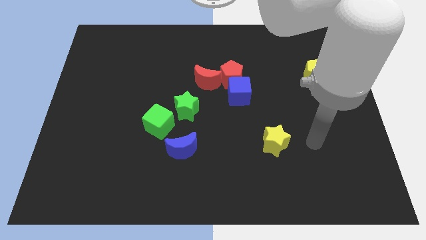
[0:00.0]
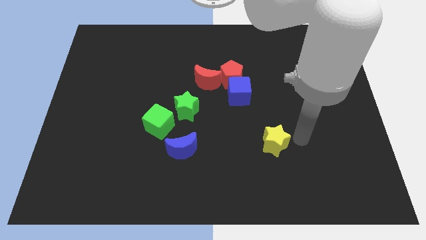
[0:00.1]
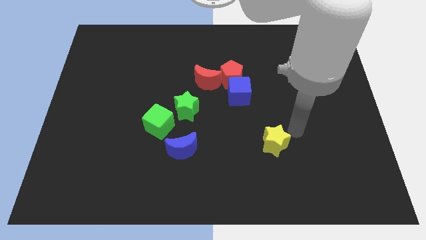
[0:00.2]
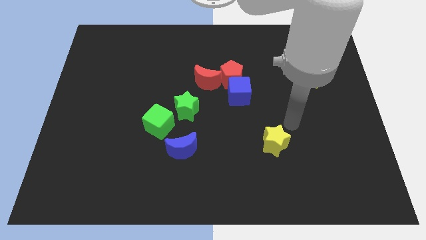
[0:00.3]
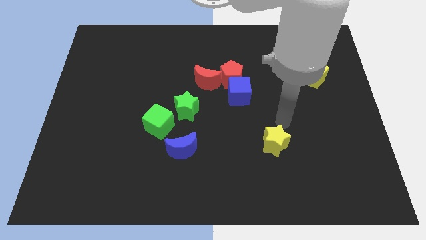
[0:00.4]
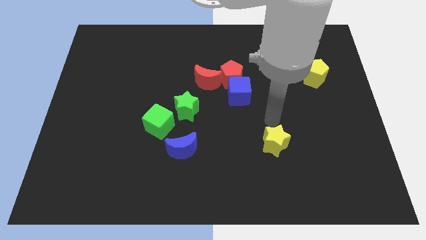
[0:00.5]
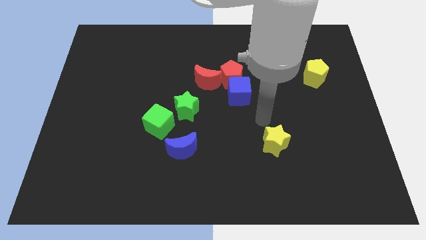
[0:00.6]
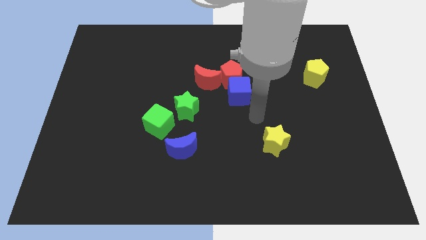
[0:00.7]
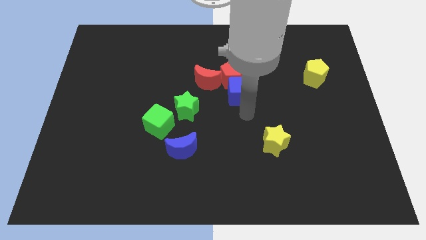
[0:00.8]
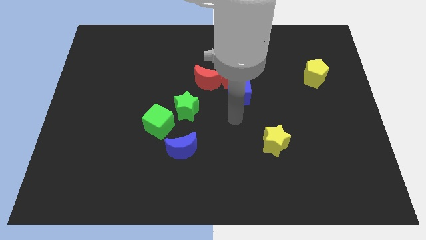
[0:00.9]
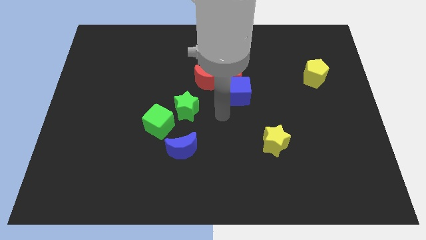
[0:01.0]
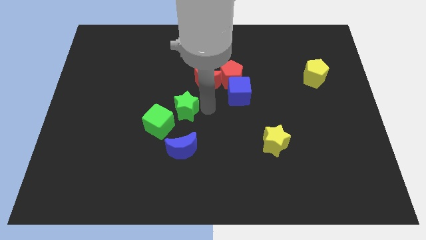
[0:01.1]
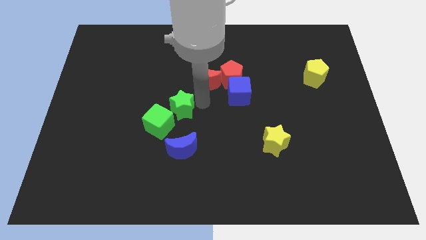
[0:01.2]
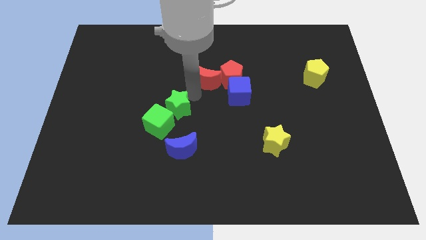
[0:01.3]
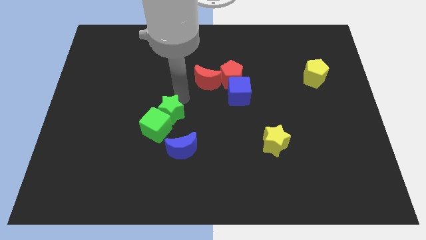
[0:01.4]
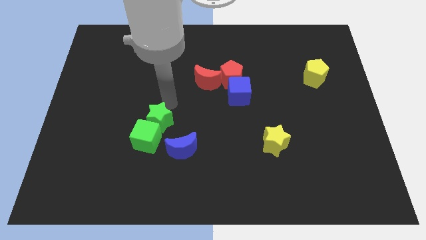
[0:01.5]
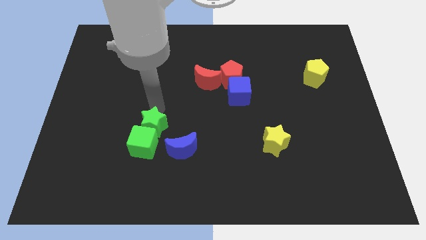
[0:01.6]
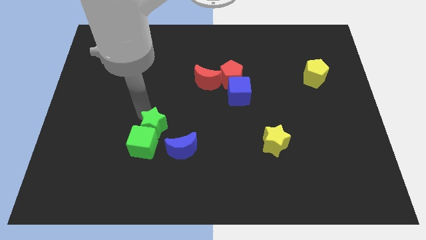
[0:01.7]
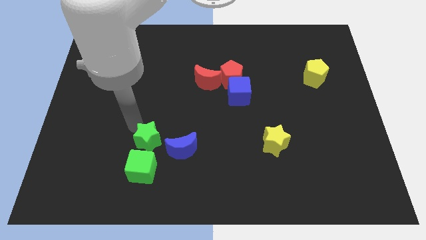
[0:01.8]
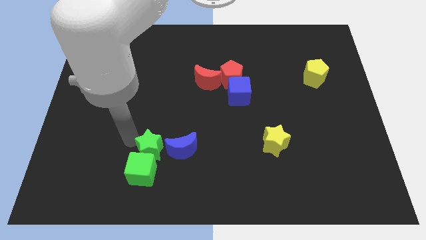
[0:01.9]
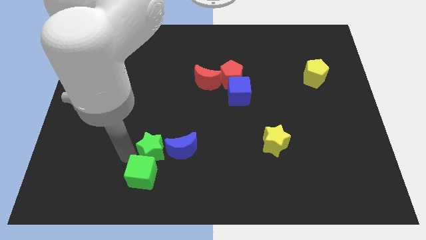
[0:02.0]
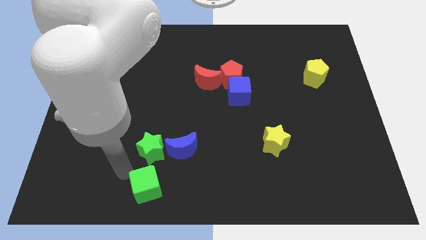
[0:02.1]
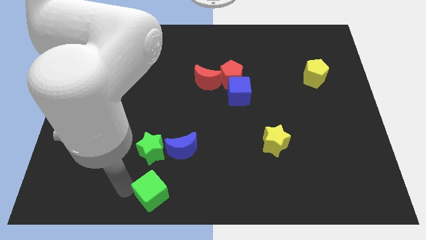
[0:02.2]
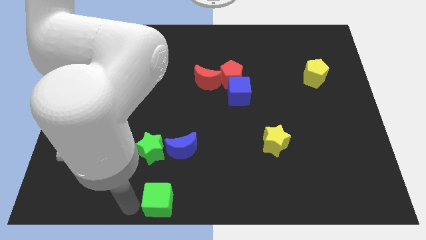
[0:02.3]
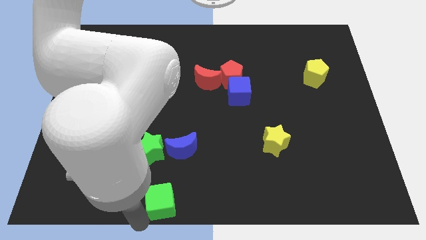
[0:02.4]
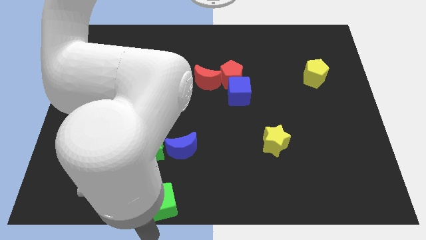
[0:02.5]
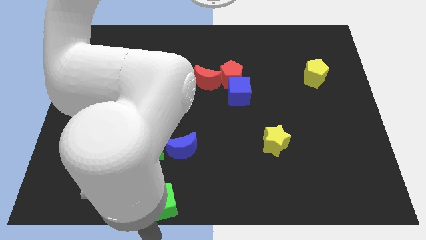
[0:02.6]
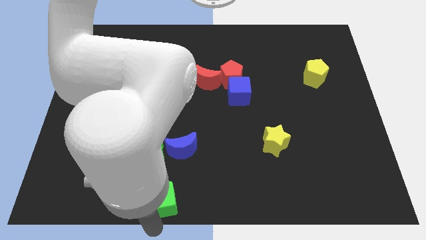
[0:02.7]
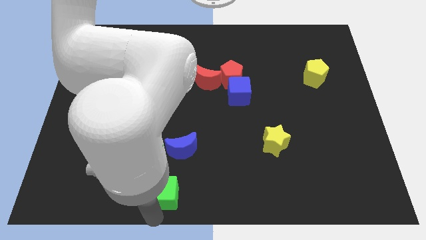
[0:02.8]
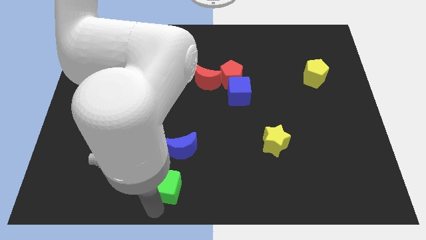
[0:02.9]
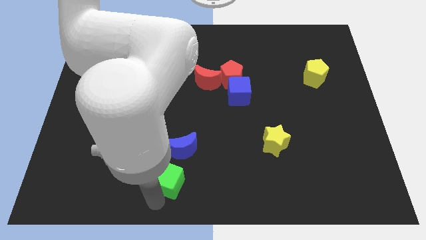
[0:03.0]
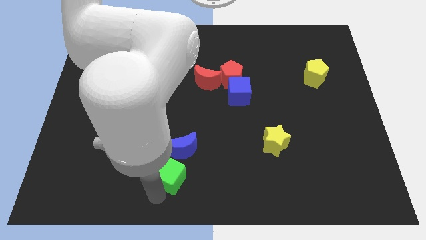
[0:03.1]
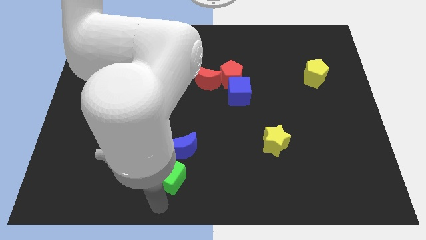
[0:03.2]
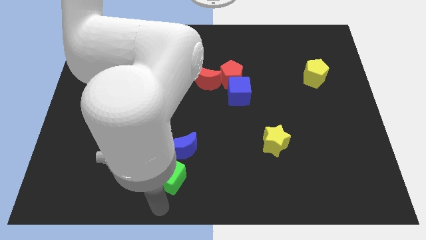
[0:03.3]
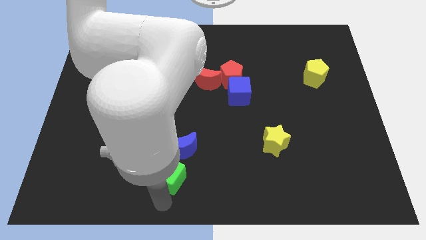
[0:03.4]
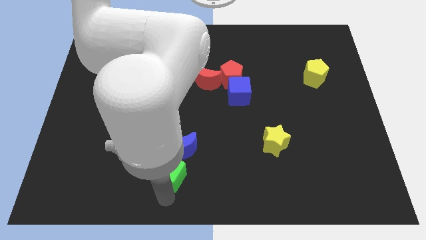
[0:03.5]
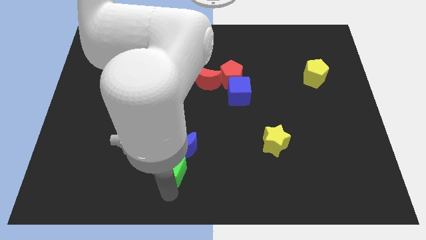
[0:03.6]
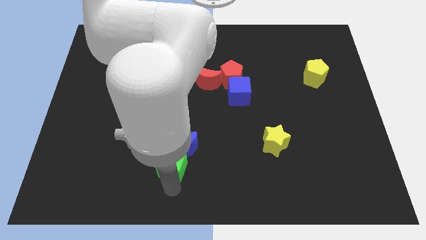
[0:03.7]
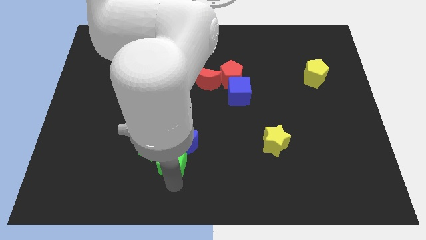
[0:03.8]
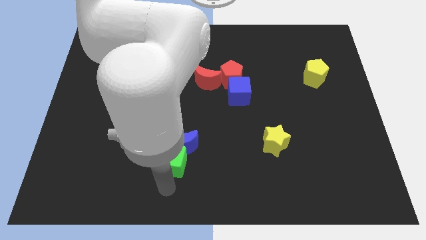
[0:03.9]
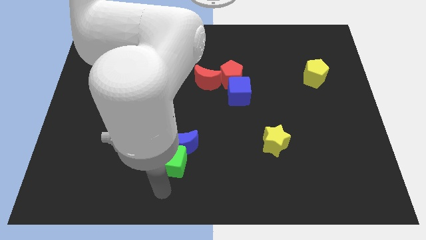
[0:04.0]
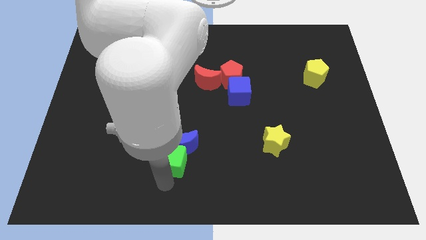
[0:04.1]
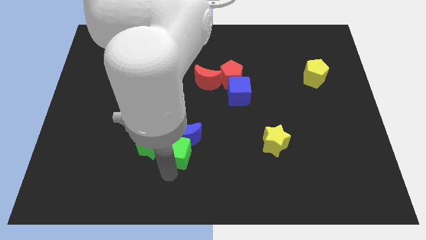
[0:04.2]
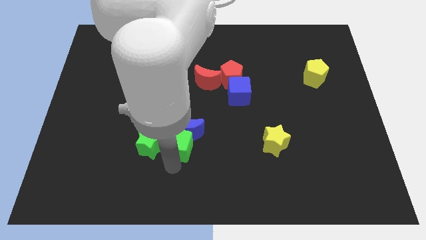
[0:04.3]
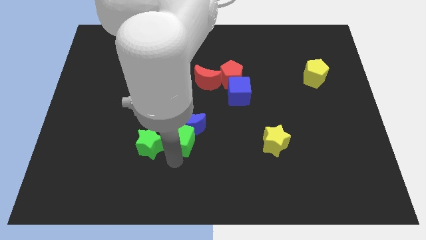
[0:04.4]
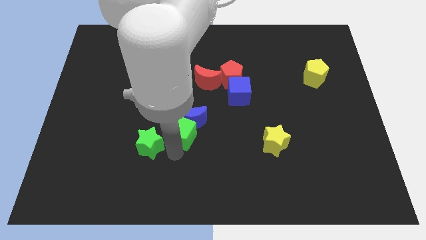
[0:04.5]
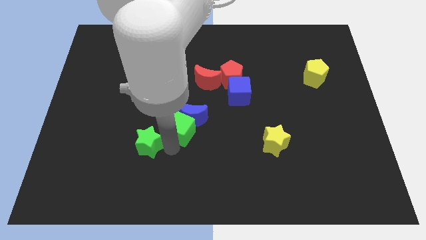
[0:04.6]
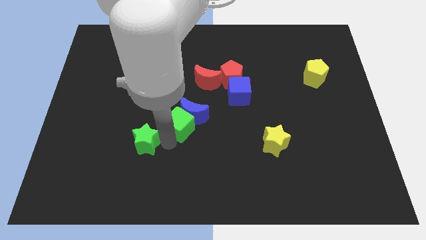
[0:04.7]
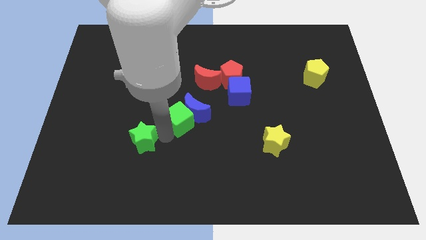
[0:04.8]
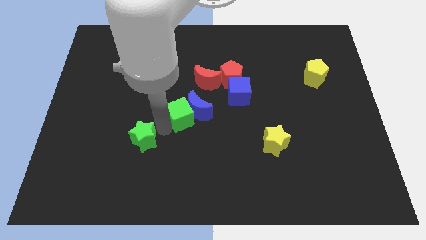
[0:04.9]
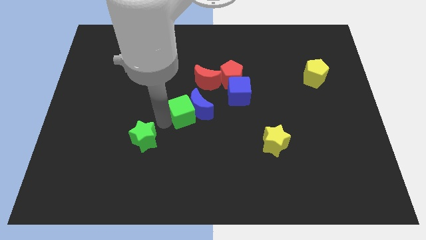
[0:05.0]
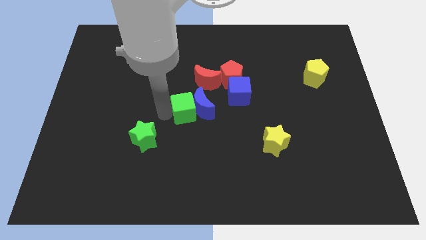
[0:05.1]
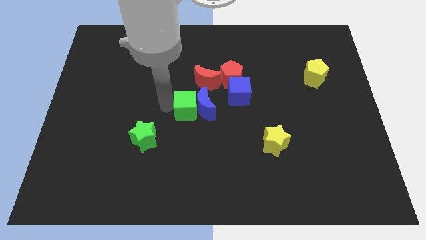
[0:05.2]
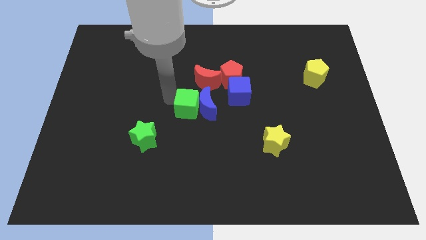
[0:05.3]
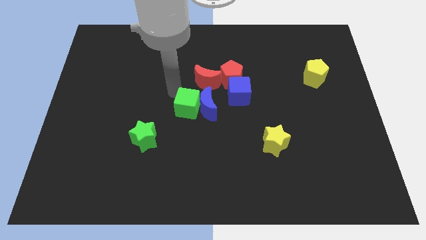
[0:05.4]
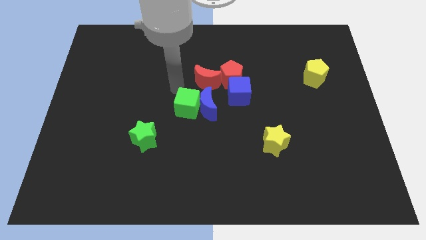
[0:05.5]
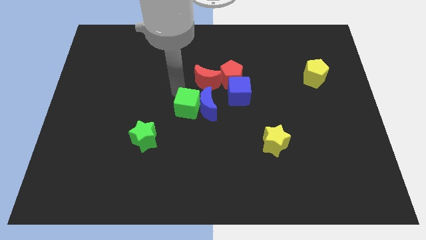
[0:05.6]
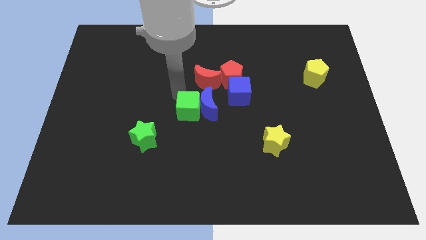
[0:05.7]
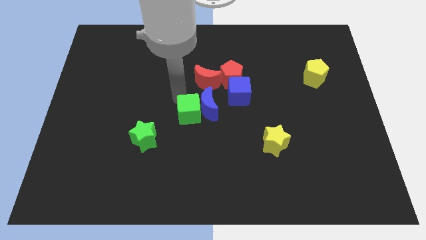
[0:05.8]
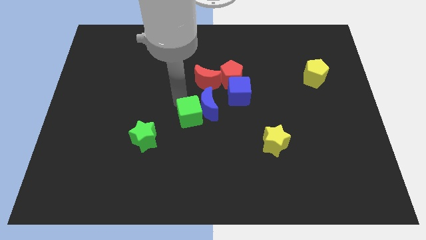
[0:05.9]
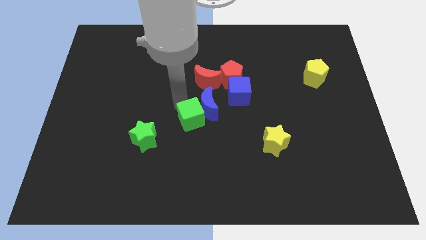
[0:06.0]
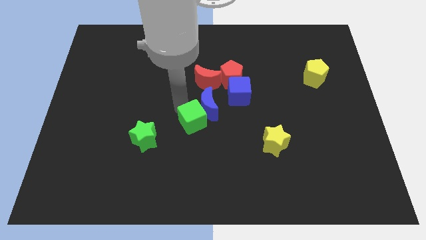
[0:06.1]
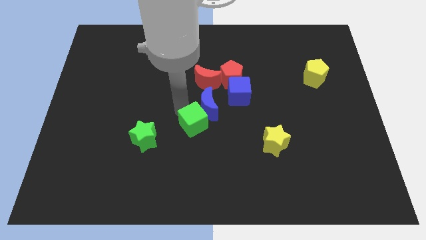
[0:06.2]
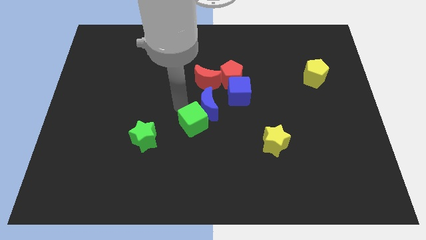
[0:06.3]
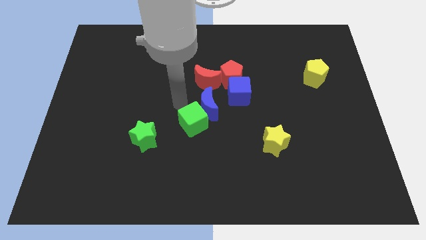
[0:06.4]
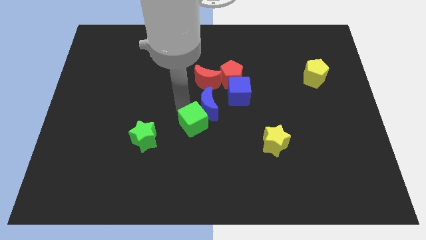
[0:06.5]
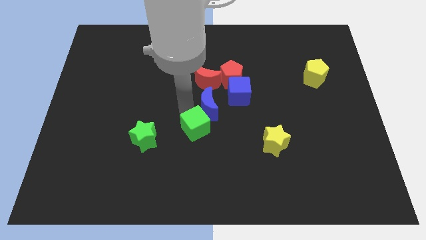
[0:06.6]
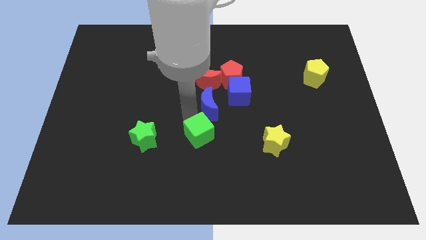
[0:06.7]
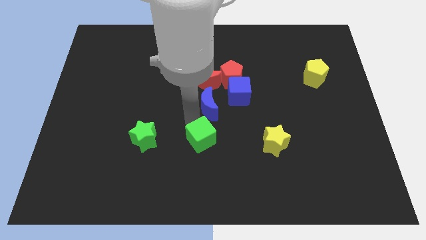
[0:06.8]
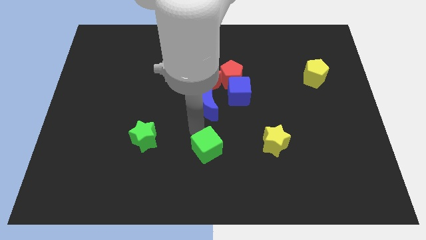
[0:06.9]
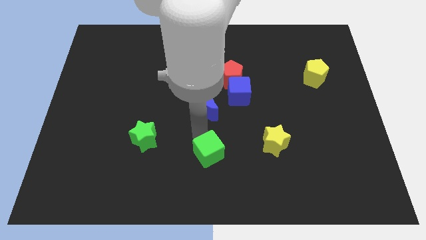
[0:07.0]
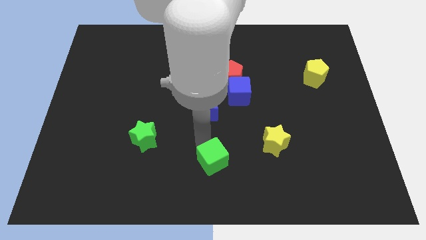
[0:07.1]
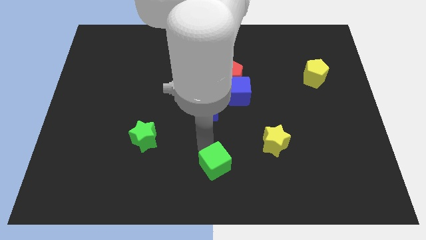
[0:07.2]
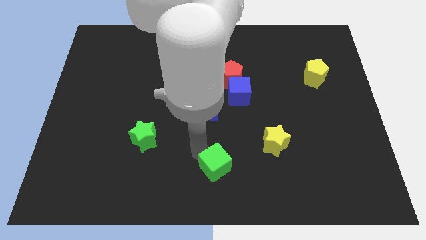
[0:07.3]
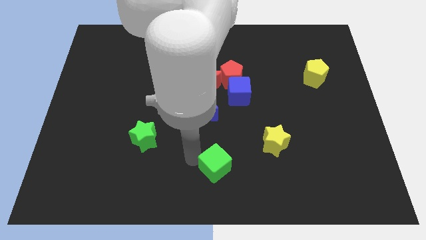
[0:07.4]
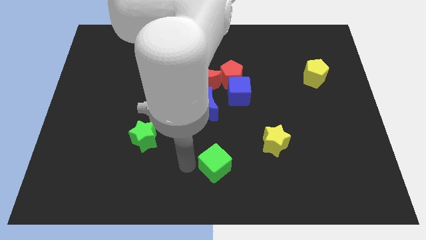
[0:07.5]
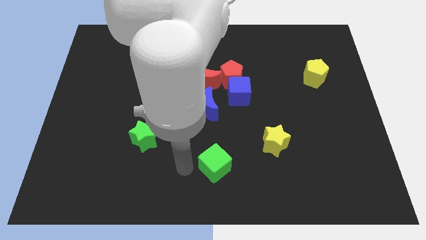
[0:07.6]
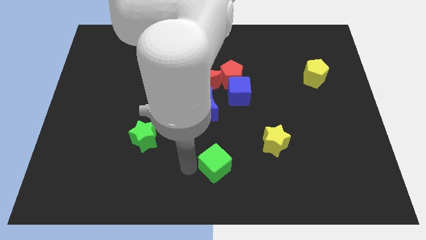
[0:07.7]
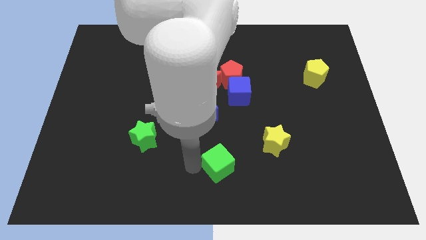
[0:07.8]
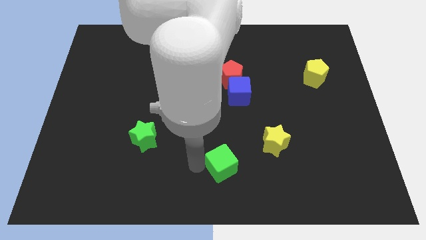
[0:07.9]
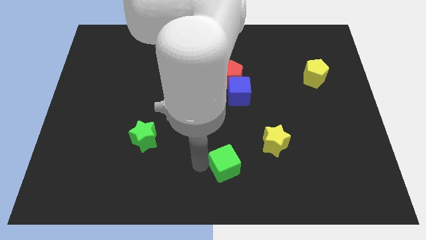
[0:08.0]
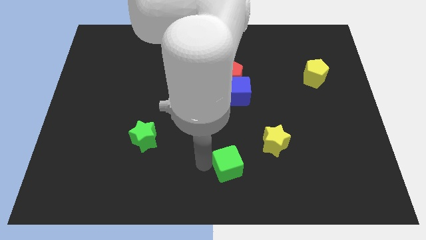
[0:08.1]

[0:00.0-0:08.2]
move the green cube to the bottom left of the yellow star
